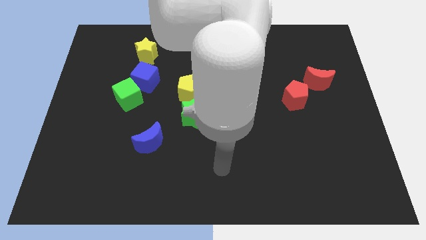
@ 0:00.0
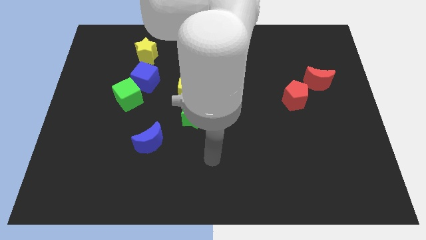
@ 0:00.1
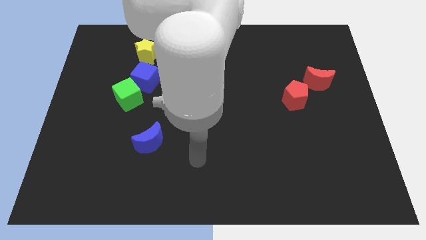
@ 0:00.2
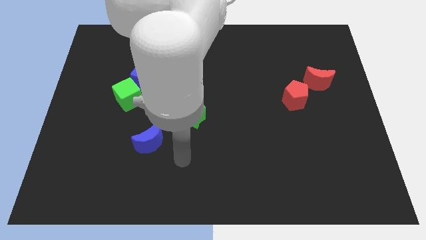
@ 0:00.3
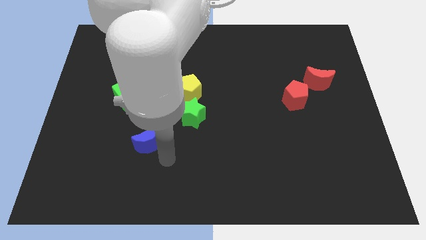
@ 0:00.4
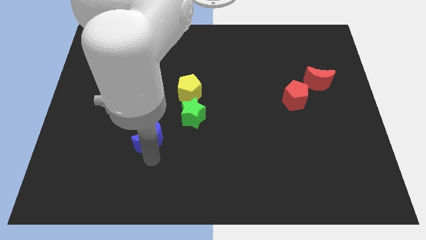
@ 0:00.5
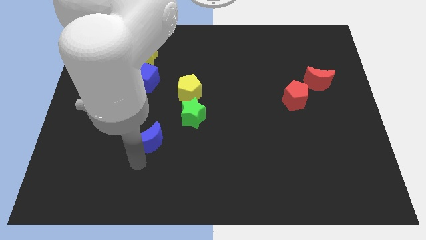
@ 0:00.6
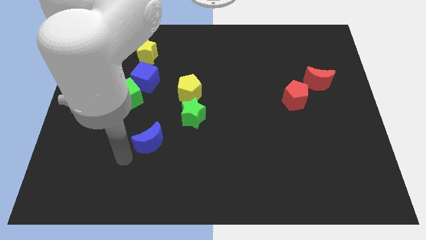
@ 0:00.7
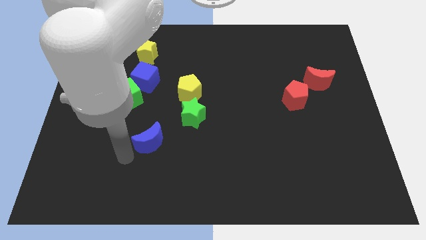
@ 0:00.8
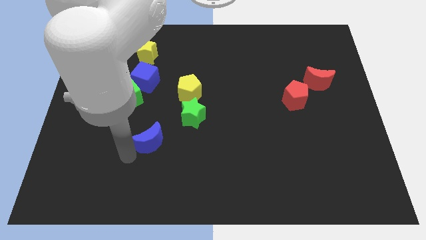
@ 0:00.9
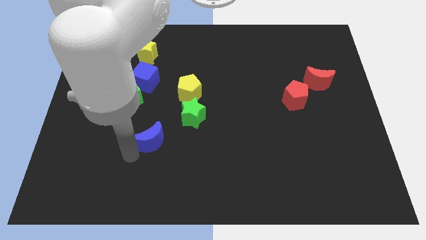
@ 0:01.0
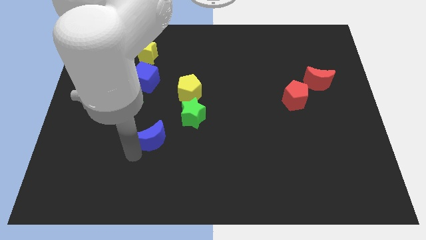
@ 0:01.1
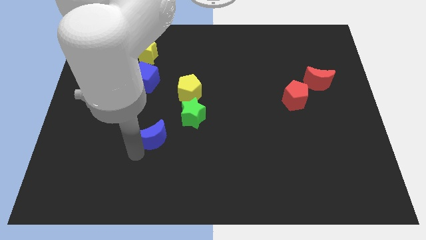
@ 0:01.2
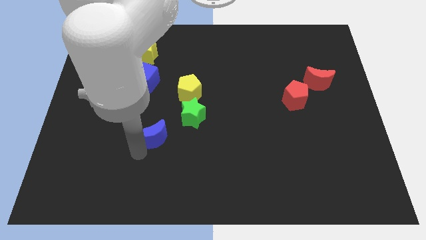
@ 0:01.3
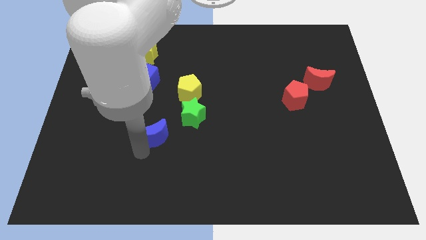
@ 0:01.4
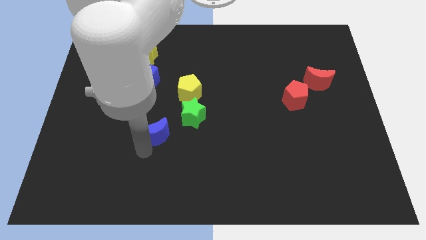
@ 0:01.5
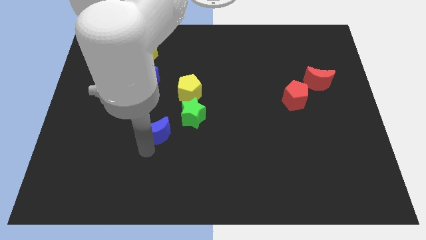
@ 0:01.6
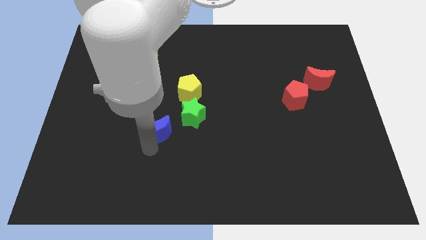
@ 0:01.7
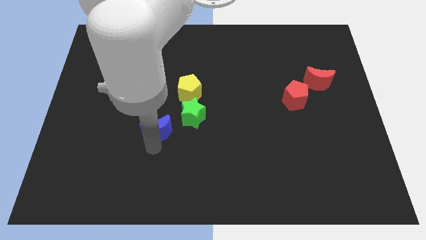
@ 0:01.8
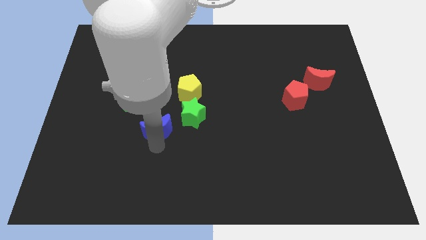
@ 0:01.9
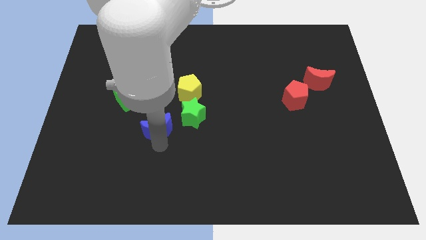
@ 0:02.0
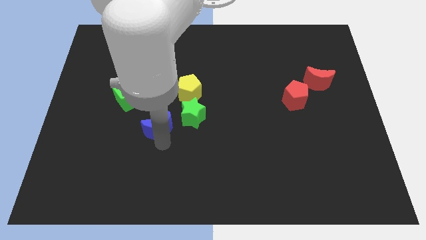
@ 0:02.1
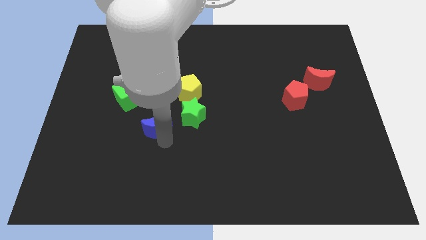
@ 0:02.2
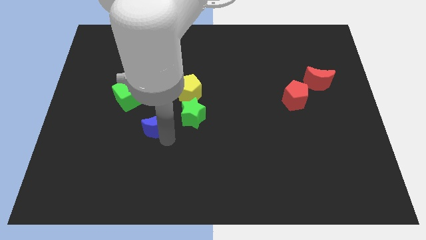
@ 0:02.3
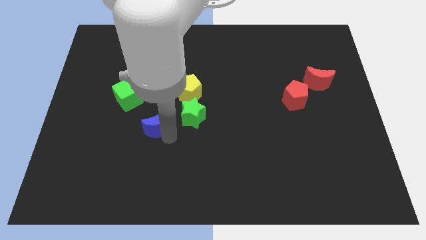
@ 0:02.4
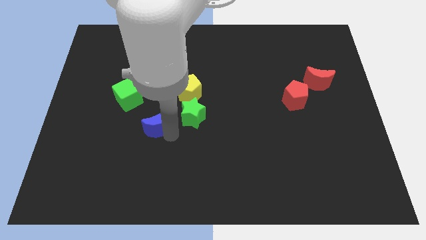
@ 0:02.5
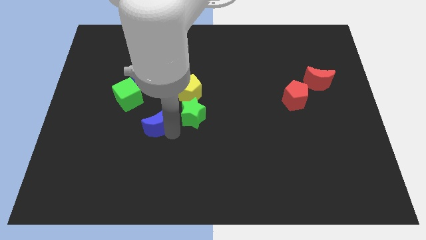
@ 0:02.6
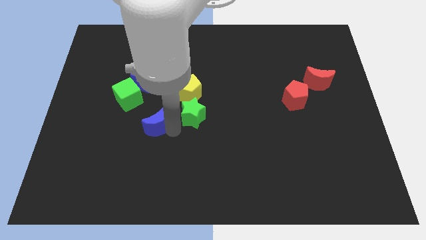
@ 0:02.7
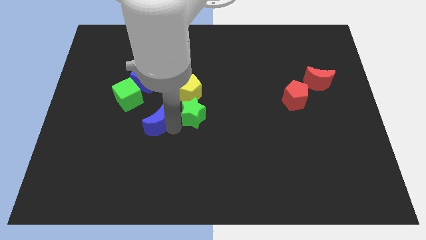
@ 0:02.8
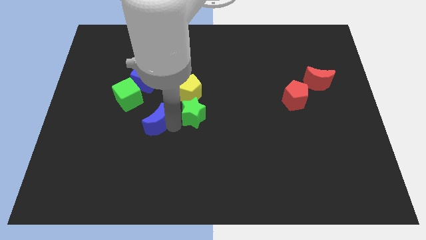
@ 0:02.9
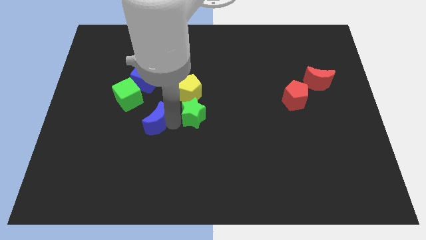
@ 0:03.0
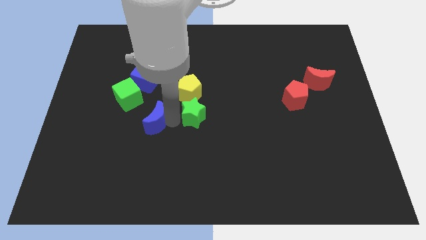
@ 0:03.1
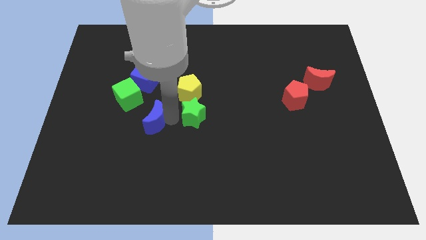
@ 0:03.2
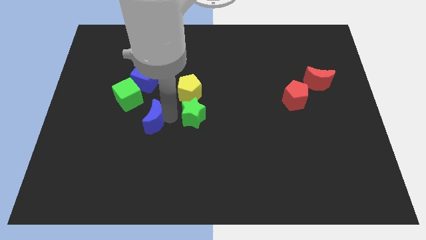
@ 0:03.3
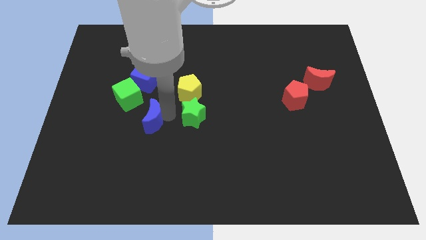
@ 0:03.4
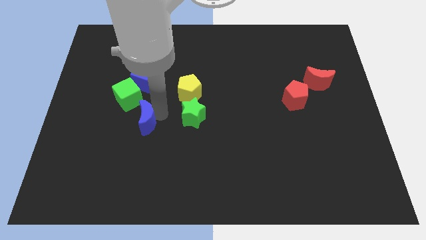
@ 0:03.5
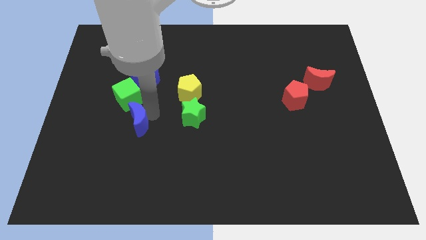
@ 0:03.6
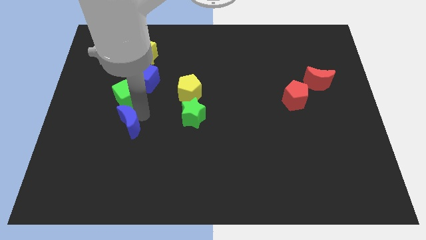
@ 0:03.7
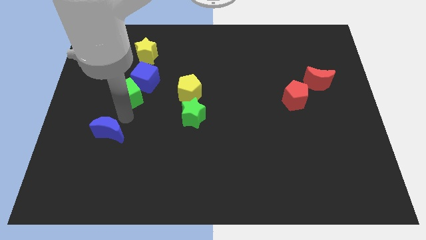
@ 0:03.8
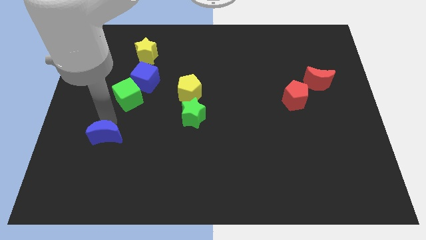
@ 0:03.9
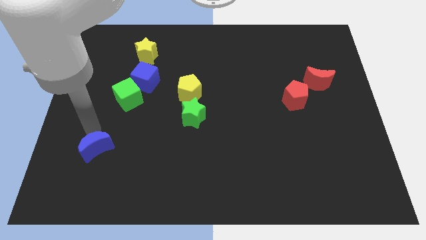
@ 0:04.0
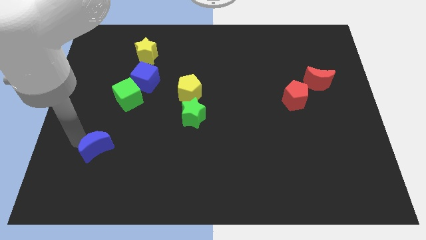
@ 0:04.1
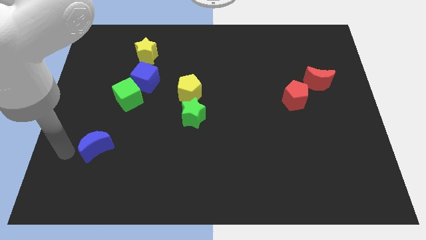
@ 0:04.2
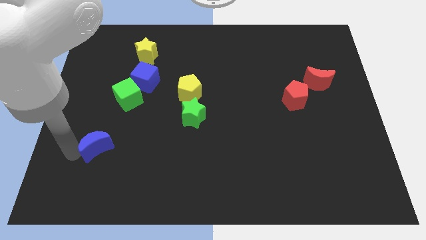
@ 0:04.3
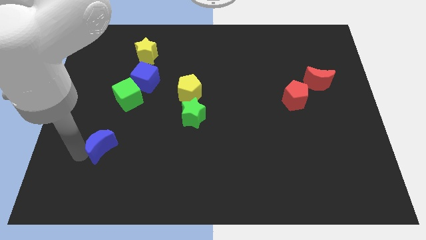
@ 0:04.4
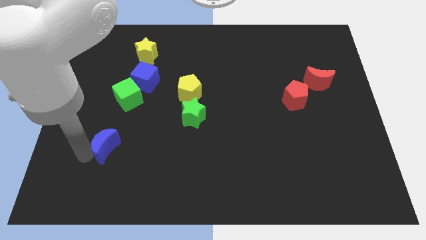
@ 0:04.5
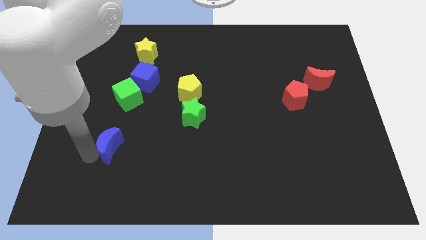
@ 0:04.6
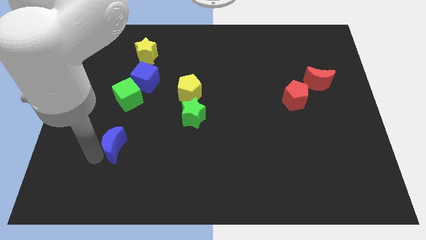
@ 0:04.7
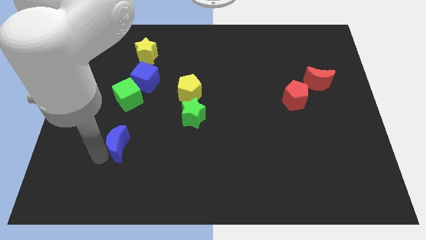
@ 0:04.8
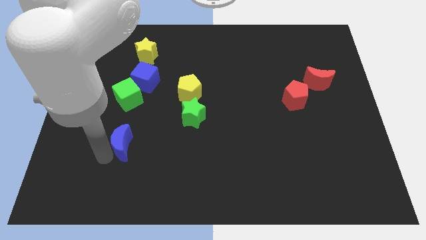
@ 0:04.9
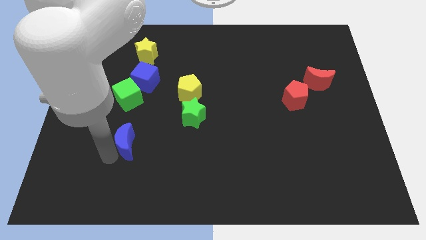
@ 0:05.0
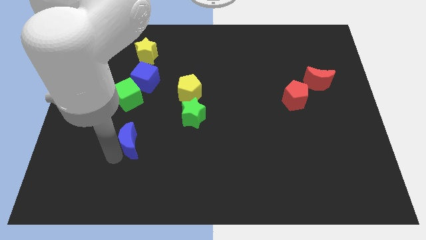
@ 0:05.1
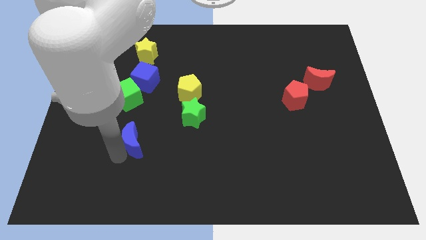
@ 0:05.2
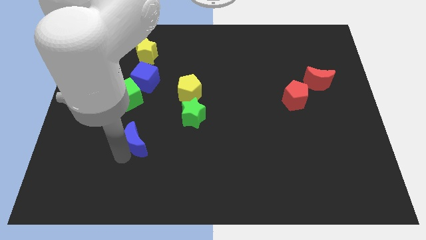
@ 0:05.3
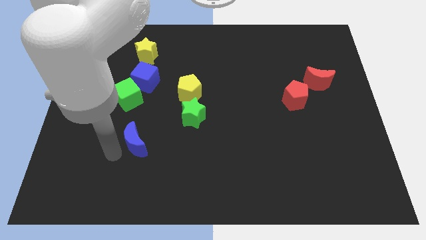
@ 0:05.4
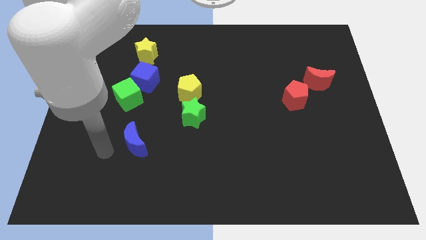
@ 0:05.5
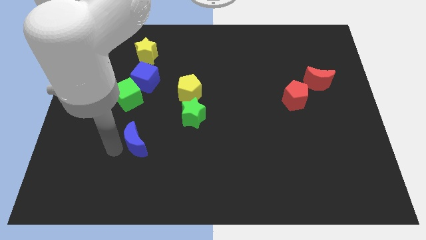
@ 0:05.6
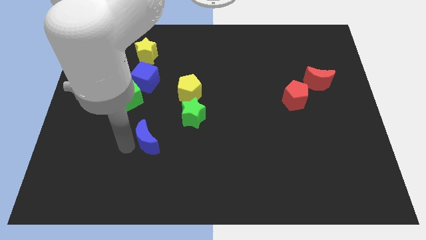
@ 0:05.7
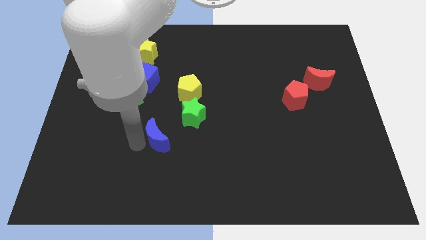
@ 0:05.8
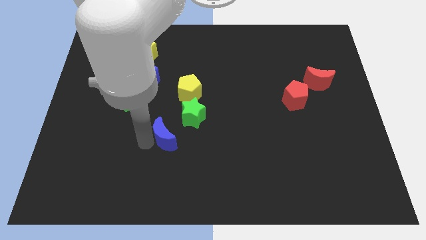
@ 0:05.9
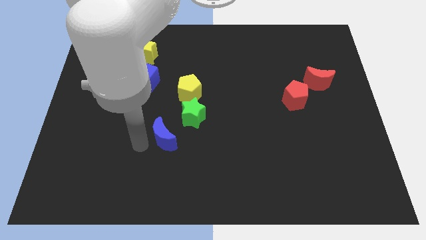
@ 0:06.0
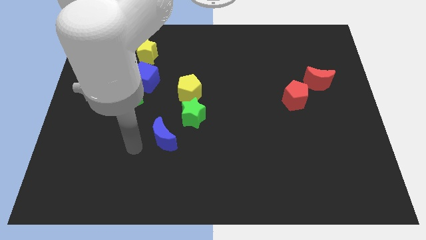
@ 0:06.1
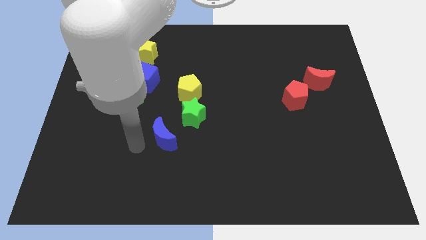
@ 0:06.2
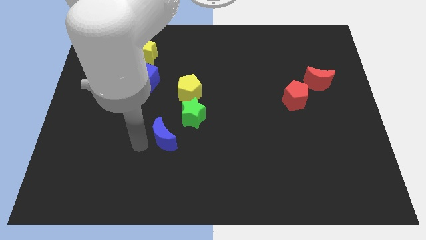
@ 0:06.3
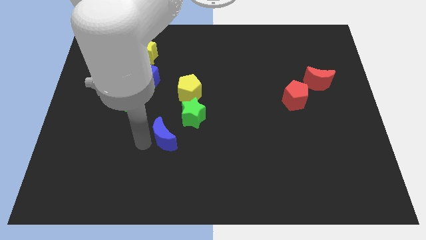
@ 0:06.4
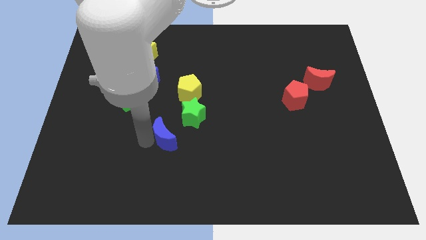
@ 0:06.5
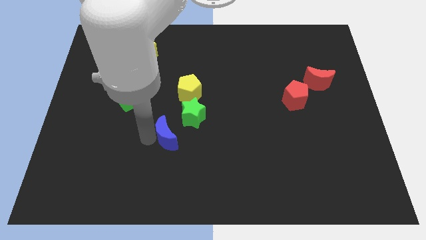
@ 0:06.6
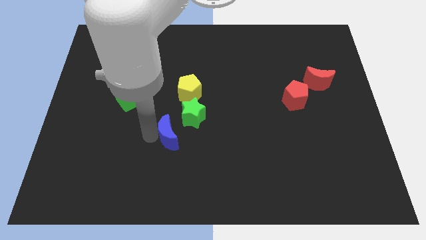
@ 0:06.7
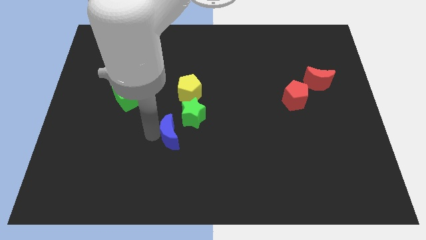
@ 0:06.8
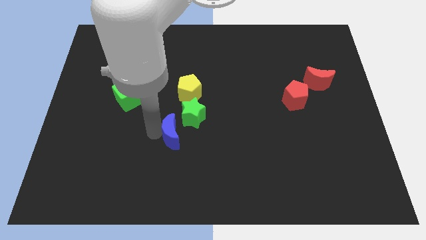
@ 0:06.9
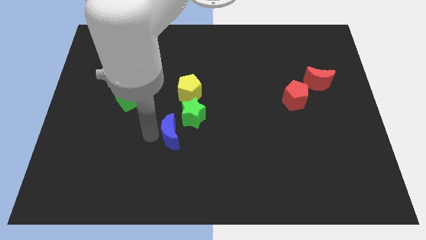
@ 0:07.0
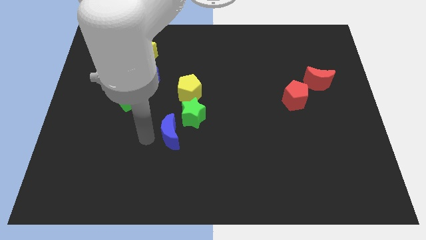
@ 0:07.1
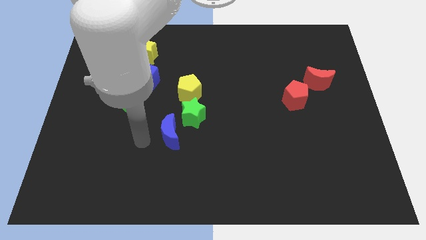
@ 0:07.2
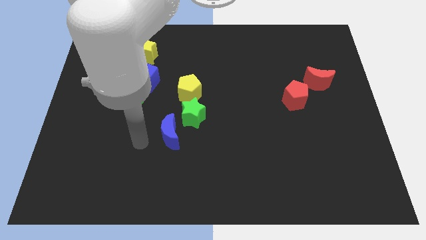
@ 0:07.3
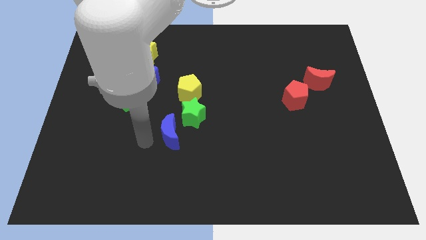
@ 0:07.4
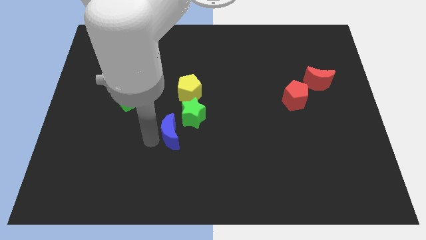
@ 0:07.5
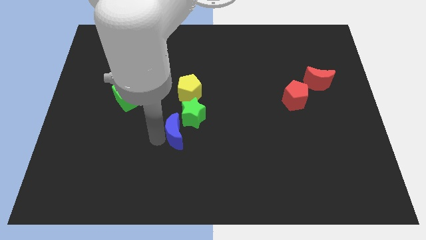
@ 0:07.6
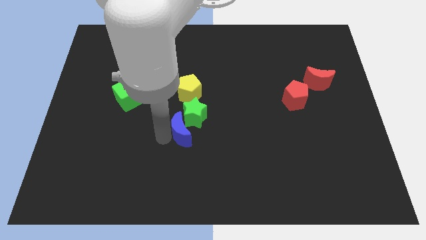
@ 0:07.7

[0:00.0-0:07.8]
move the blue moon to the middle
